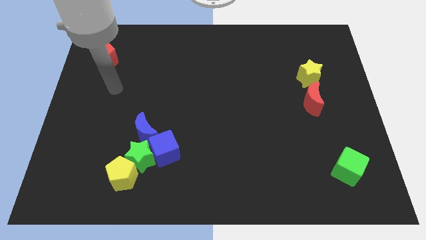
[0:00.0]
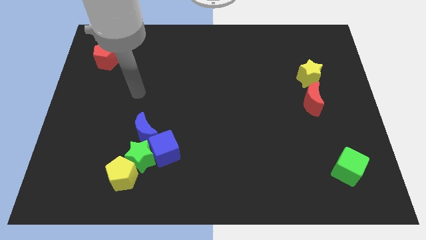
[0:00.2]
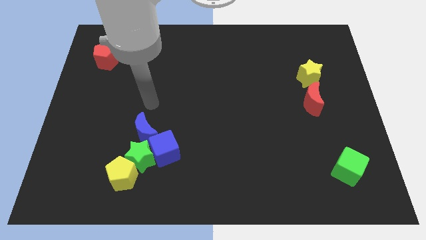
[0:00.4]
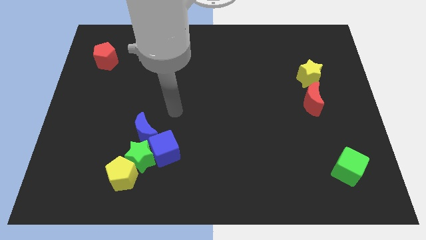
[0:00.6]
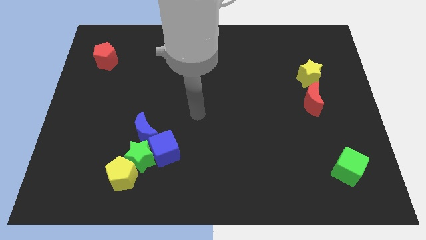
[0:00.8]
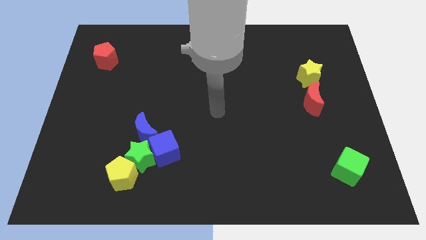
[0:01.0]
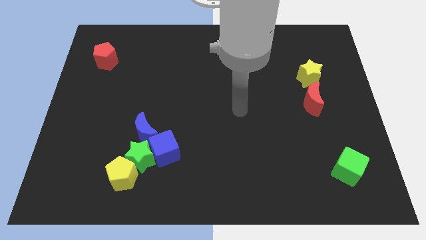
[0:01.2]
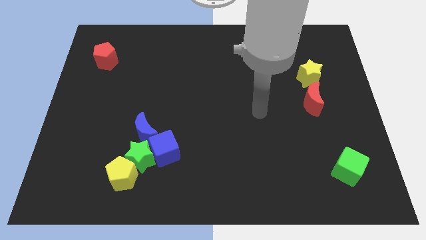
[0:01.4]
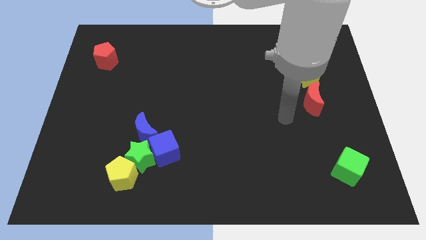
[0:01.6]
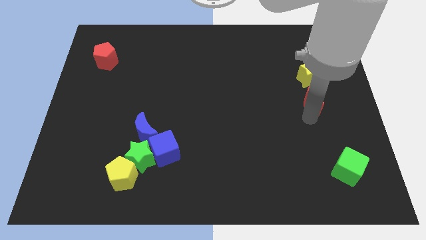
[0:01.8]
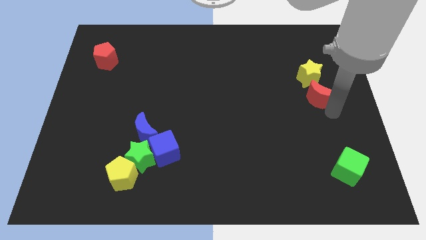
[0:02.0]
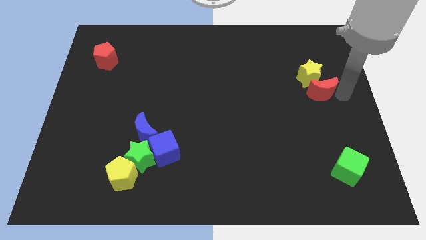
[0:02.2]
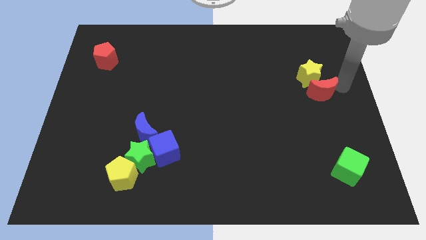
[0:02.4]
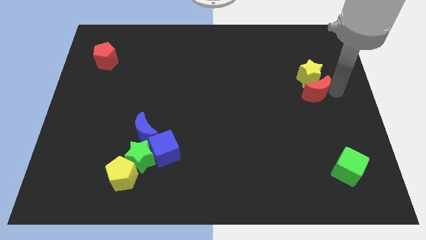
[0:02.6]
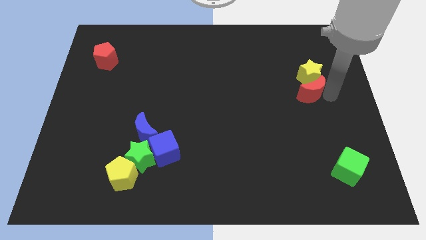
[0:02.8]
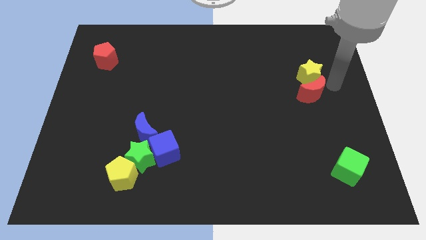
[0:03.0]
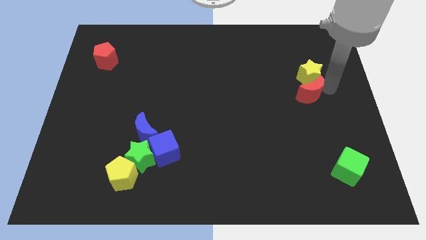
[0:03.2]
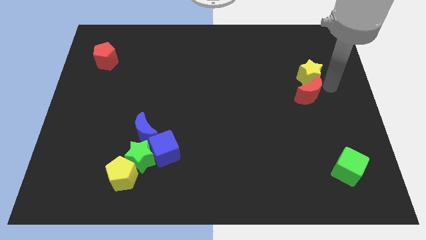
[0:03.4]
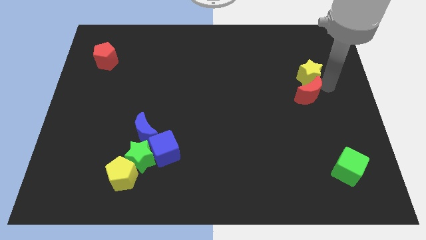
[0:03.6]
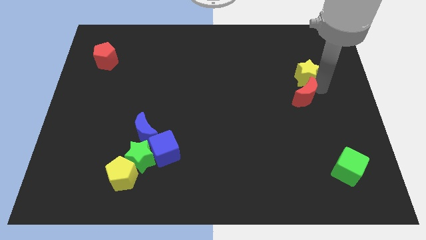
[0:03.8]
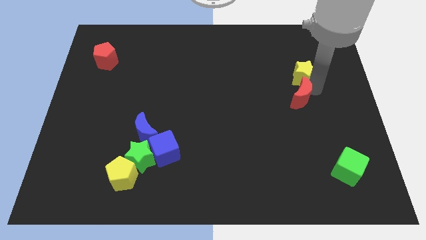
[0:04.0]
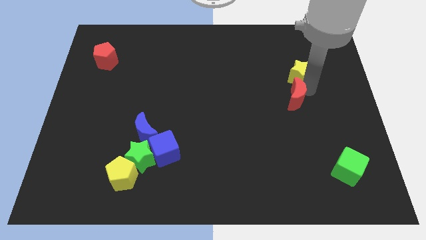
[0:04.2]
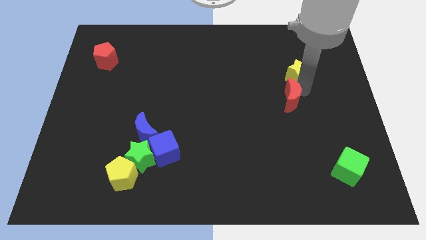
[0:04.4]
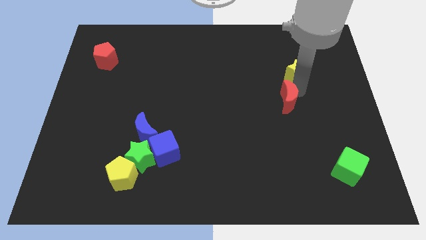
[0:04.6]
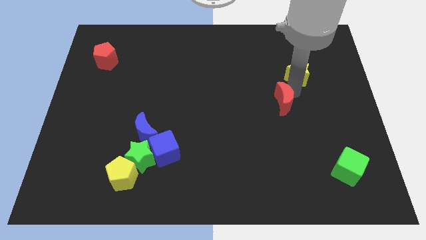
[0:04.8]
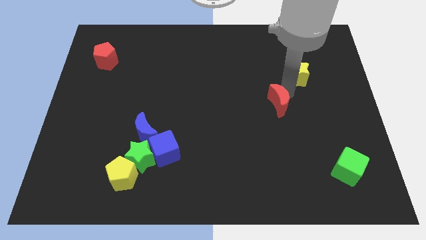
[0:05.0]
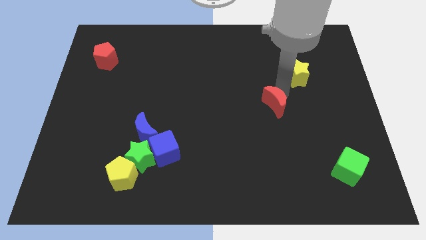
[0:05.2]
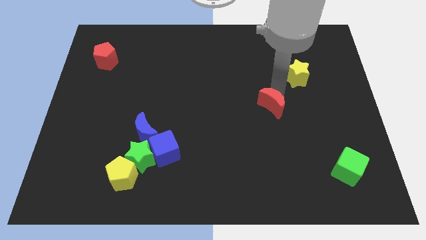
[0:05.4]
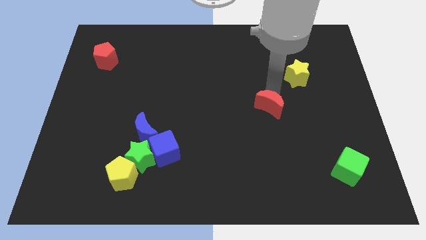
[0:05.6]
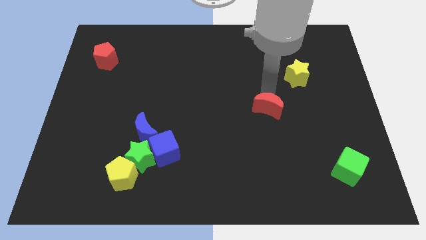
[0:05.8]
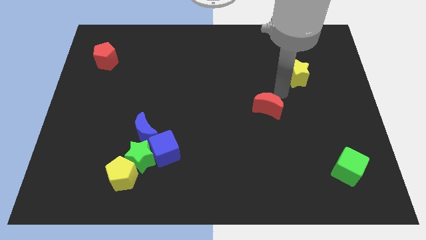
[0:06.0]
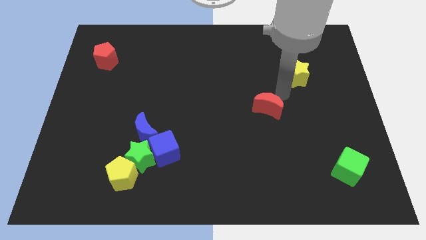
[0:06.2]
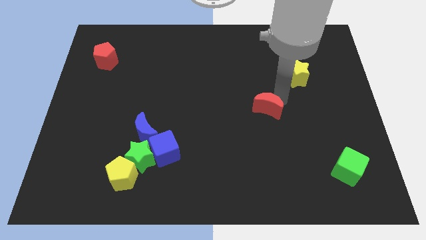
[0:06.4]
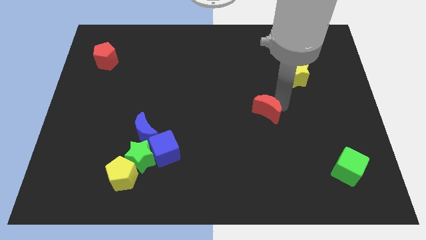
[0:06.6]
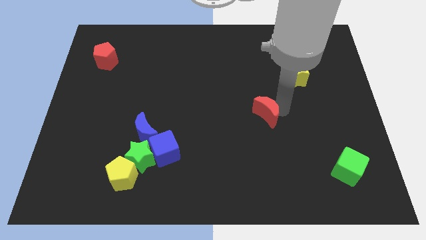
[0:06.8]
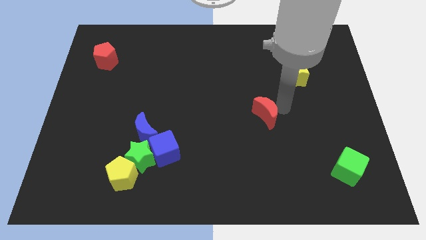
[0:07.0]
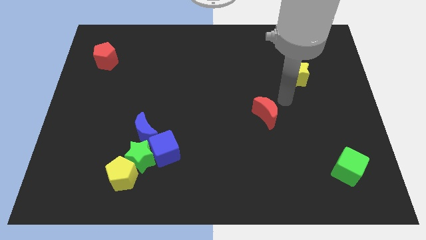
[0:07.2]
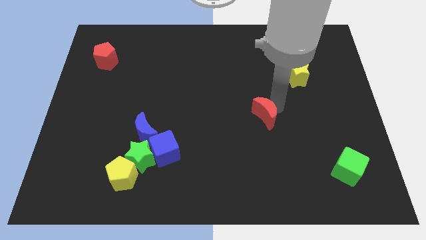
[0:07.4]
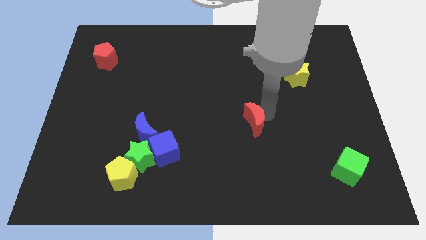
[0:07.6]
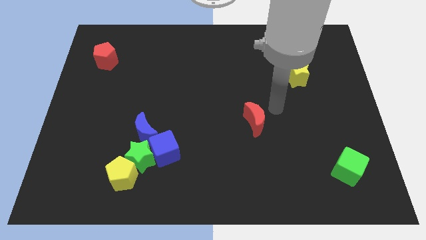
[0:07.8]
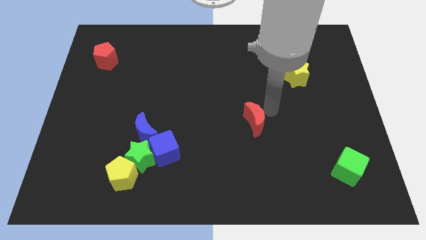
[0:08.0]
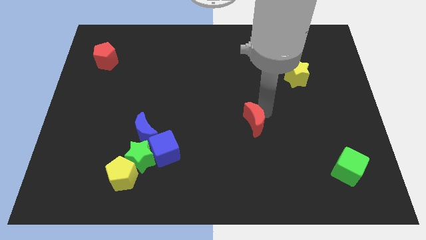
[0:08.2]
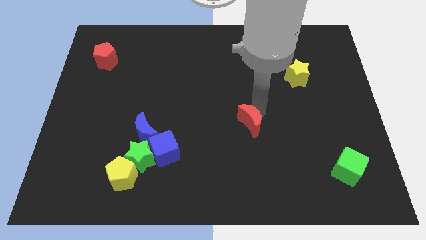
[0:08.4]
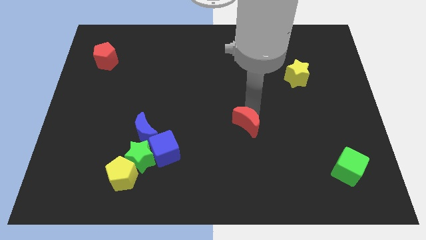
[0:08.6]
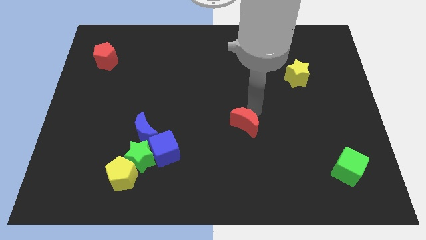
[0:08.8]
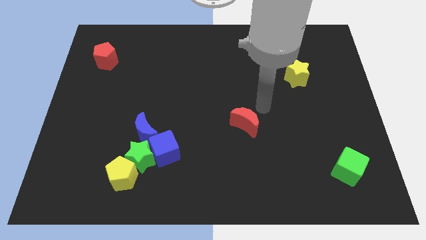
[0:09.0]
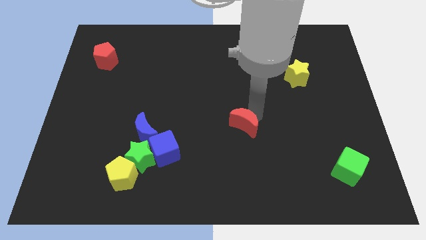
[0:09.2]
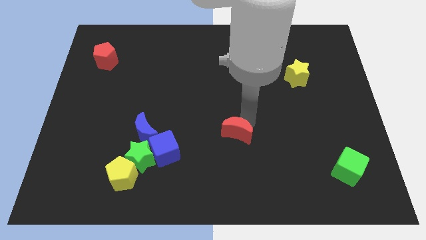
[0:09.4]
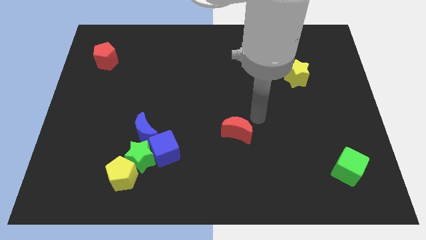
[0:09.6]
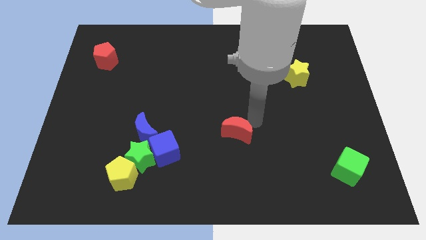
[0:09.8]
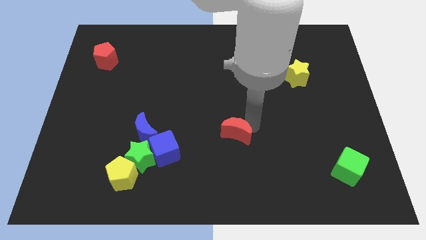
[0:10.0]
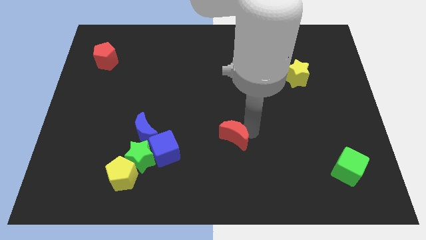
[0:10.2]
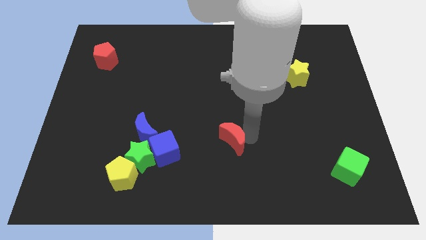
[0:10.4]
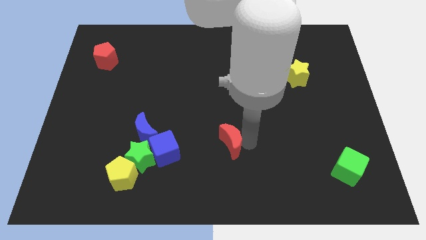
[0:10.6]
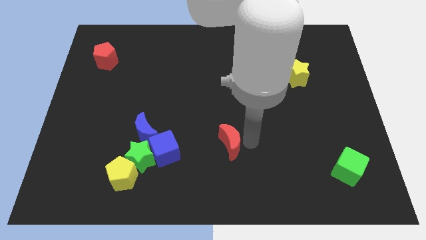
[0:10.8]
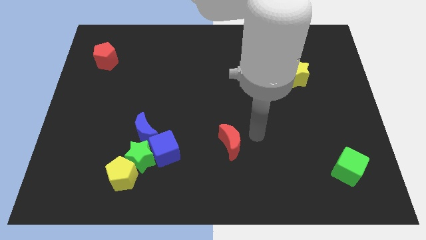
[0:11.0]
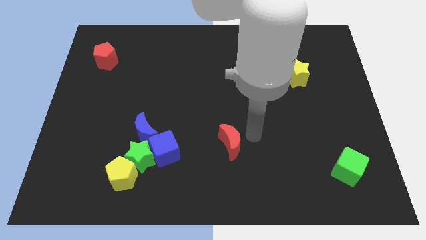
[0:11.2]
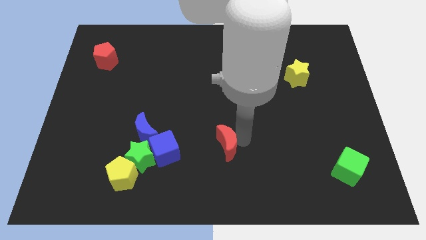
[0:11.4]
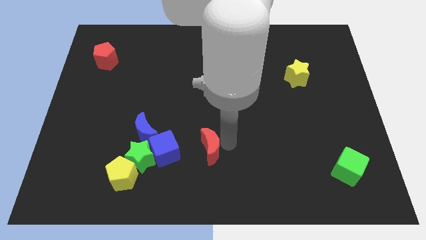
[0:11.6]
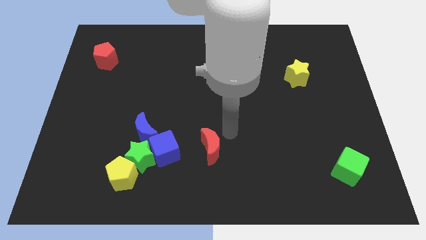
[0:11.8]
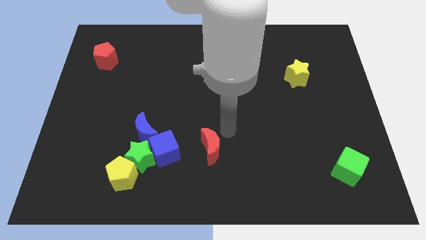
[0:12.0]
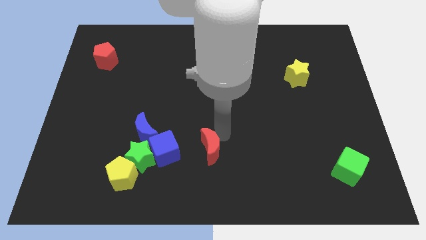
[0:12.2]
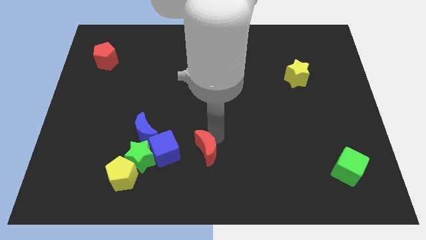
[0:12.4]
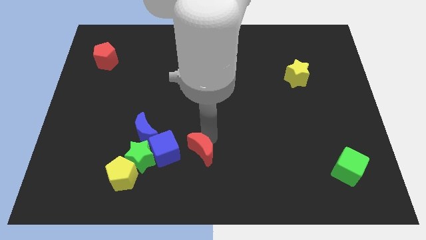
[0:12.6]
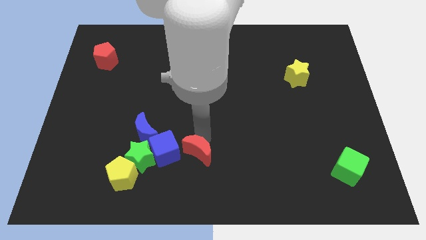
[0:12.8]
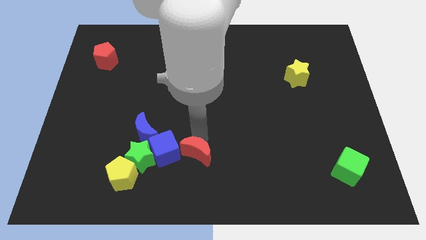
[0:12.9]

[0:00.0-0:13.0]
push the red moon to the bottom right side of the blue cube

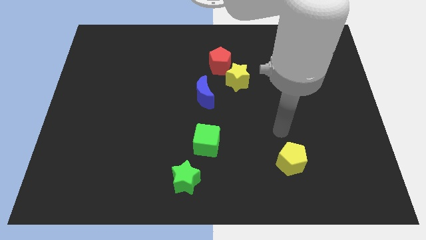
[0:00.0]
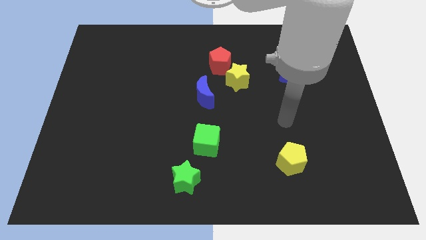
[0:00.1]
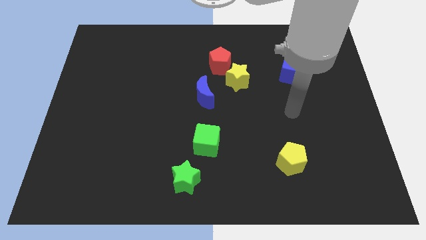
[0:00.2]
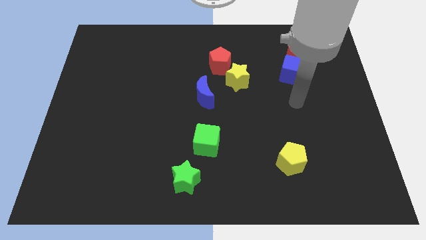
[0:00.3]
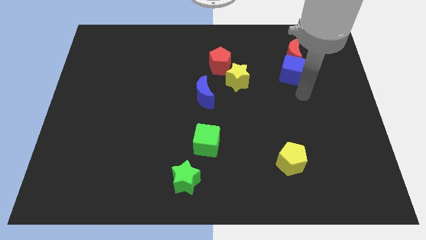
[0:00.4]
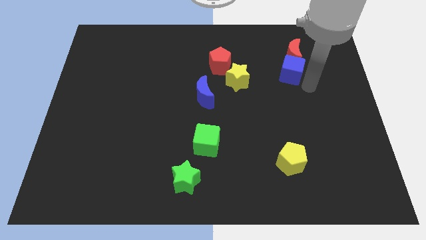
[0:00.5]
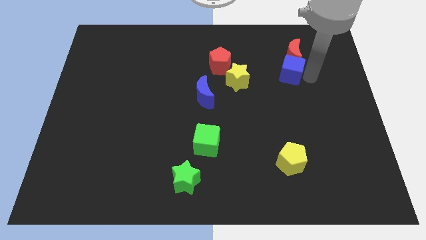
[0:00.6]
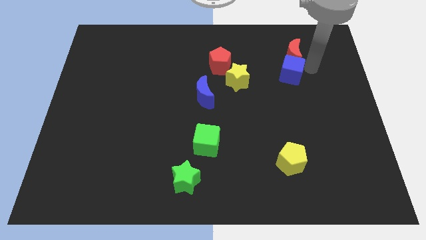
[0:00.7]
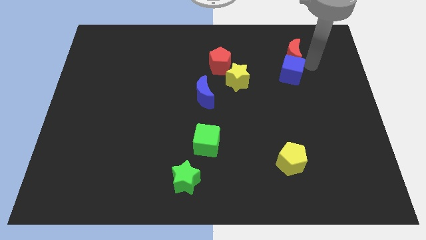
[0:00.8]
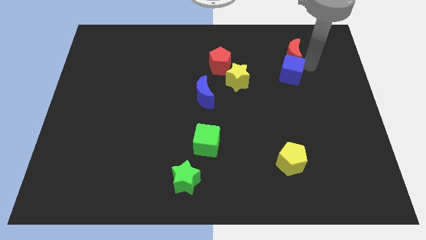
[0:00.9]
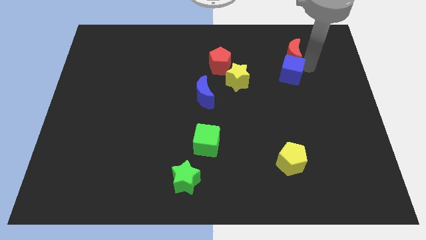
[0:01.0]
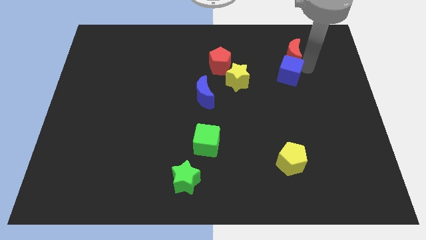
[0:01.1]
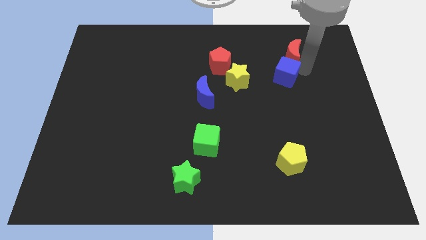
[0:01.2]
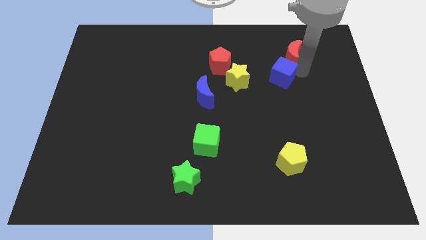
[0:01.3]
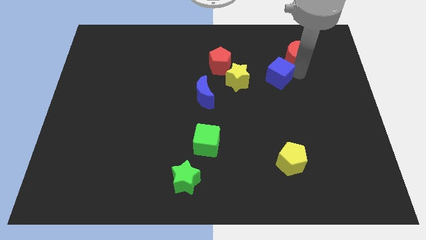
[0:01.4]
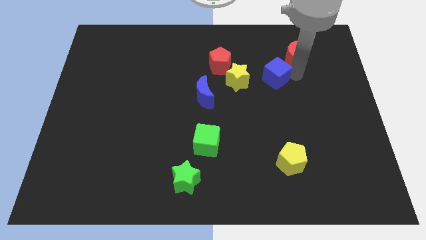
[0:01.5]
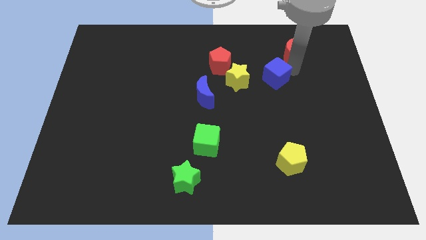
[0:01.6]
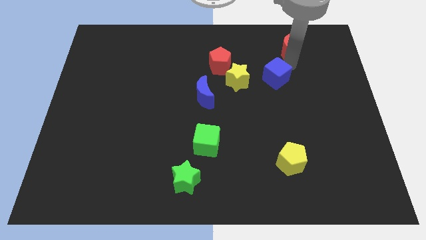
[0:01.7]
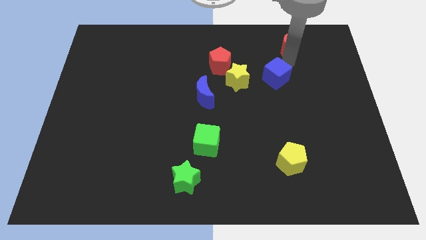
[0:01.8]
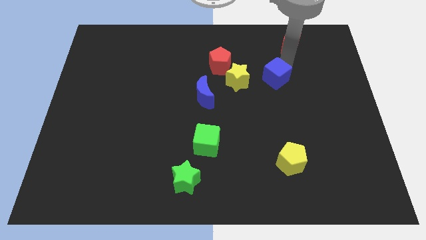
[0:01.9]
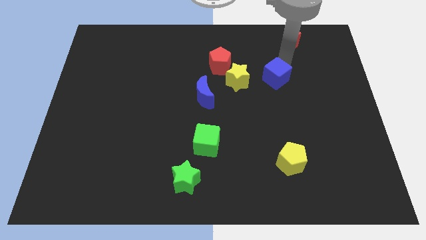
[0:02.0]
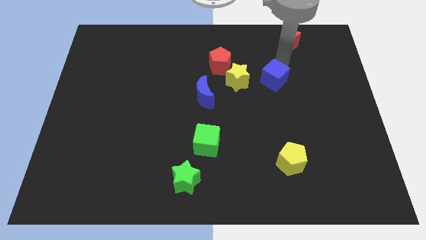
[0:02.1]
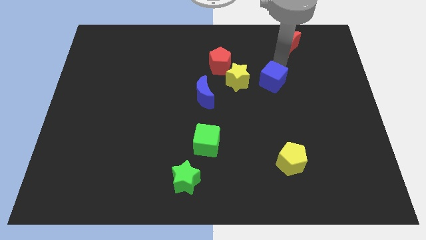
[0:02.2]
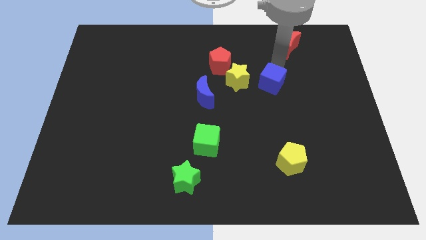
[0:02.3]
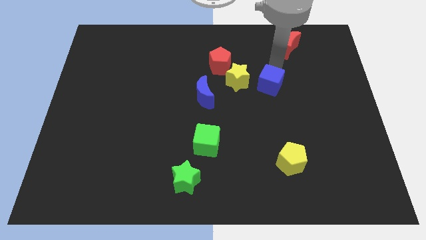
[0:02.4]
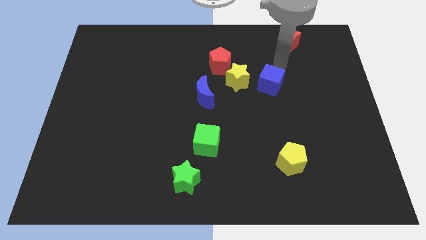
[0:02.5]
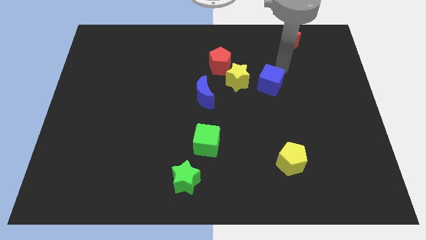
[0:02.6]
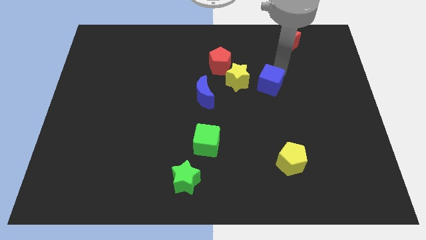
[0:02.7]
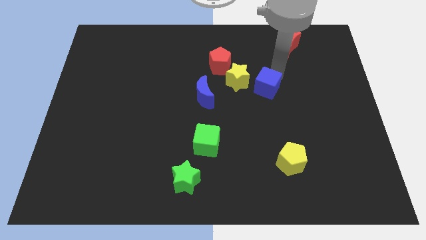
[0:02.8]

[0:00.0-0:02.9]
push the blue cube diagonally down and to the right of the yellow star
